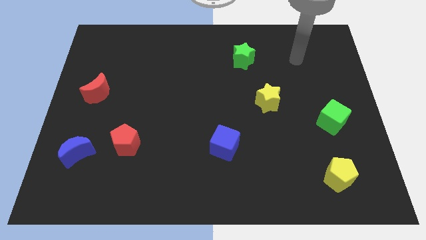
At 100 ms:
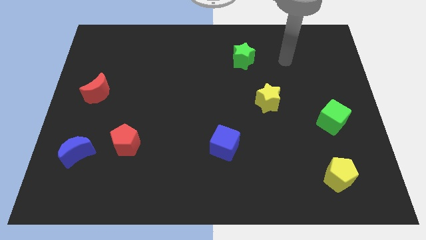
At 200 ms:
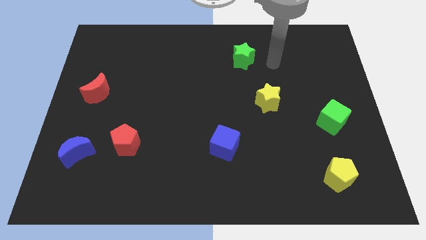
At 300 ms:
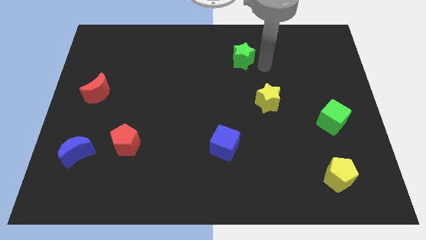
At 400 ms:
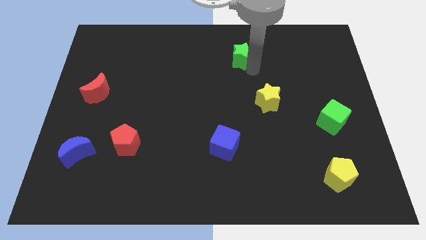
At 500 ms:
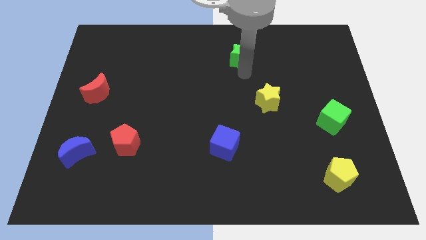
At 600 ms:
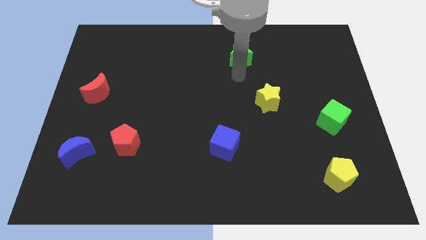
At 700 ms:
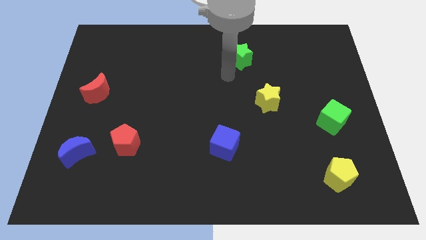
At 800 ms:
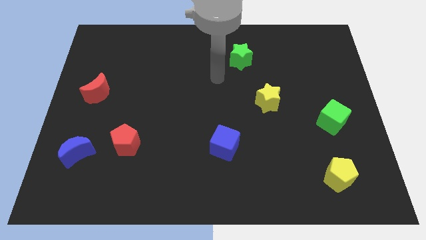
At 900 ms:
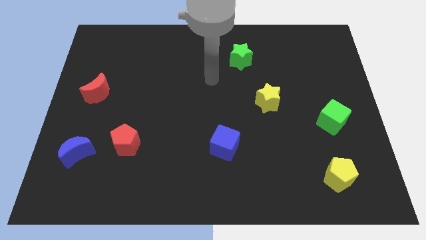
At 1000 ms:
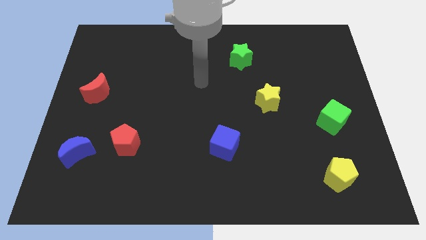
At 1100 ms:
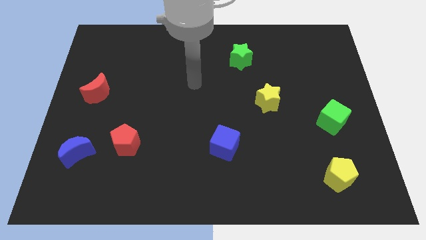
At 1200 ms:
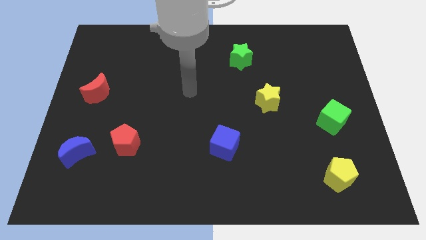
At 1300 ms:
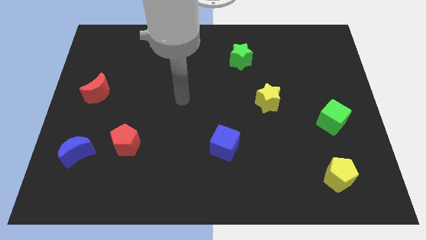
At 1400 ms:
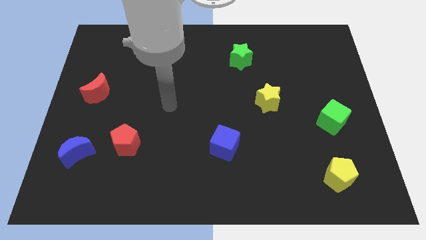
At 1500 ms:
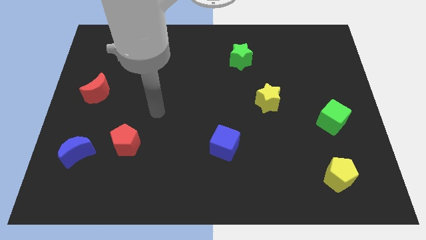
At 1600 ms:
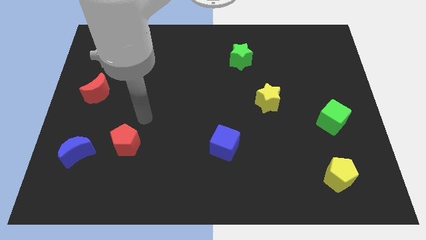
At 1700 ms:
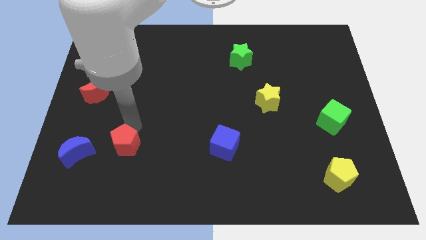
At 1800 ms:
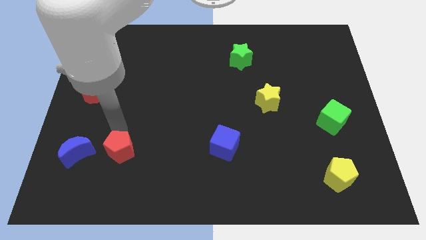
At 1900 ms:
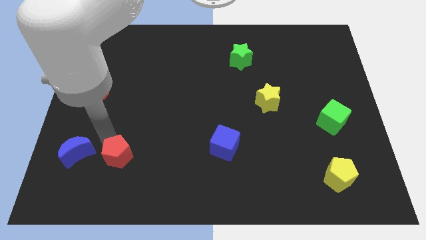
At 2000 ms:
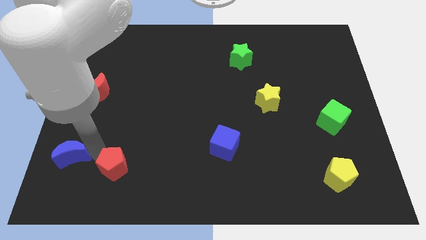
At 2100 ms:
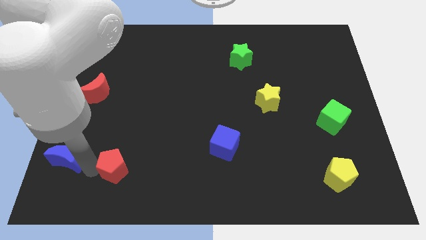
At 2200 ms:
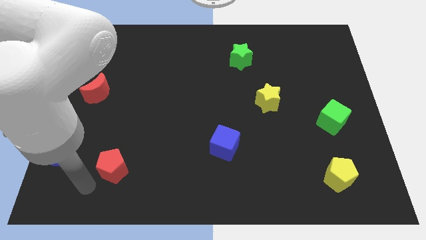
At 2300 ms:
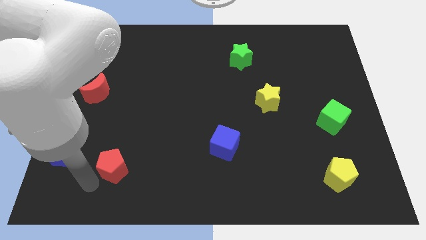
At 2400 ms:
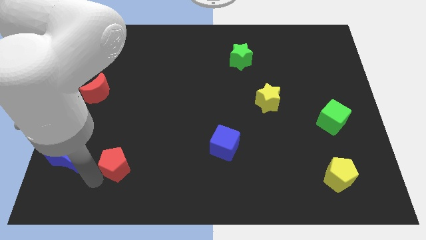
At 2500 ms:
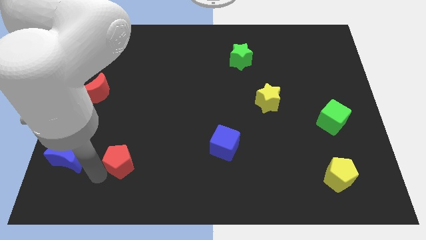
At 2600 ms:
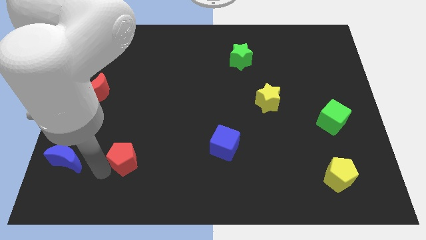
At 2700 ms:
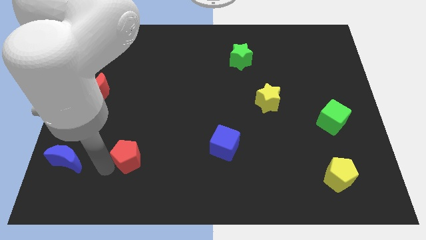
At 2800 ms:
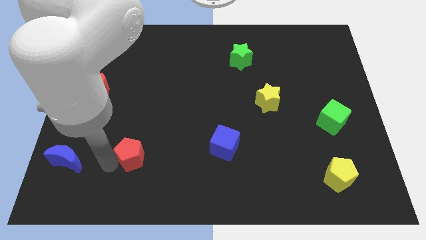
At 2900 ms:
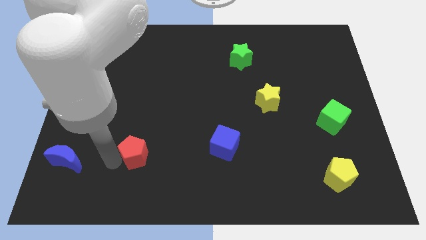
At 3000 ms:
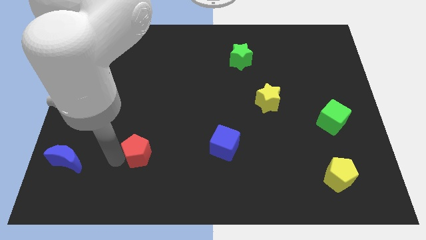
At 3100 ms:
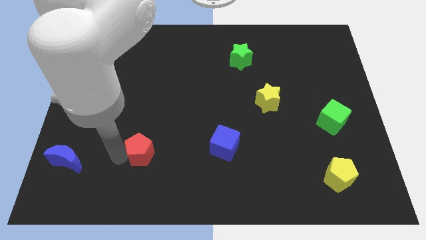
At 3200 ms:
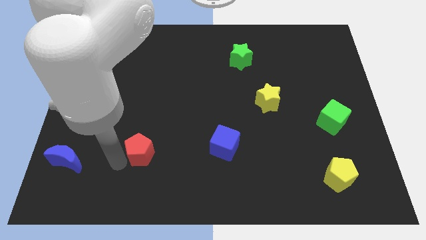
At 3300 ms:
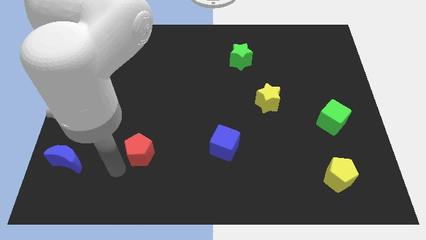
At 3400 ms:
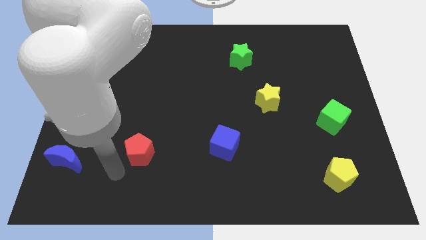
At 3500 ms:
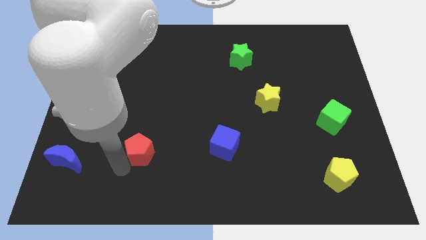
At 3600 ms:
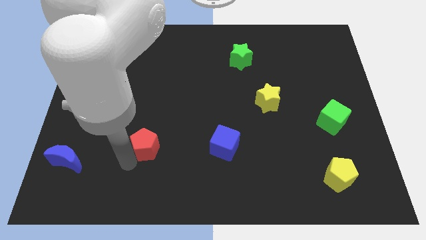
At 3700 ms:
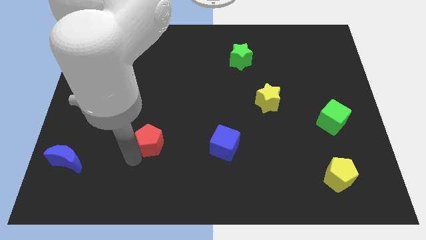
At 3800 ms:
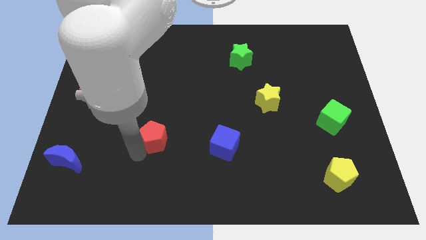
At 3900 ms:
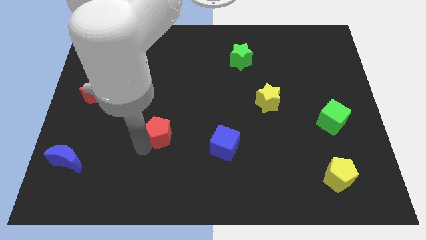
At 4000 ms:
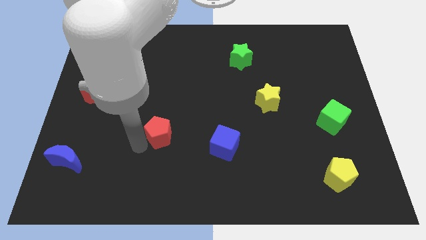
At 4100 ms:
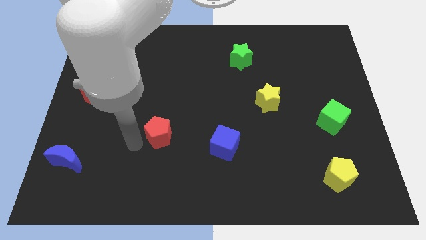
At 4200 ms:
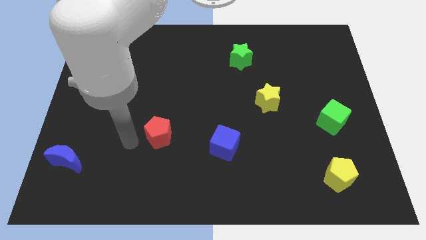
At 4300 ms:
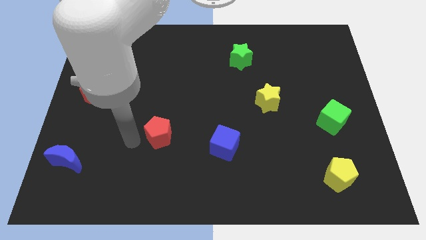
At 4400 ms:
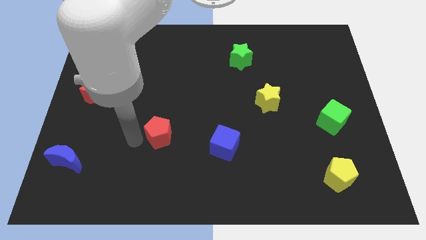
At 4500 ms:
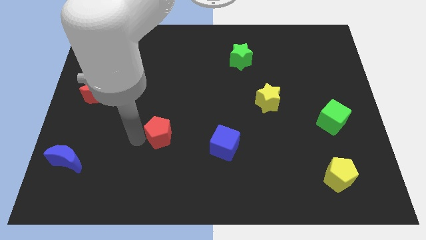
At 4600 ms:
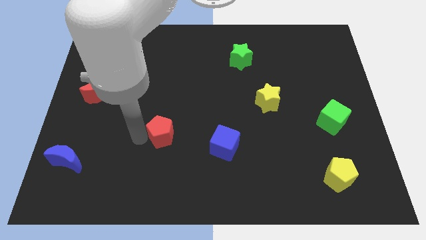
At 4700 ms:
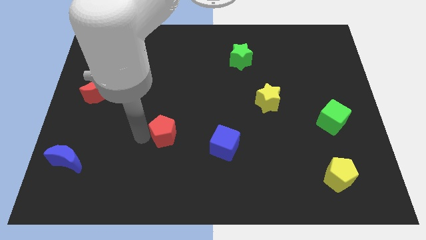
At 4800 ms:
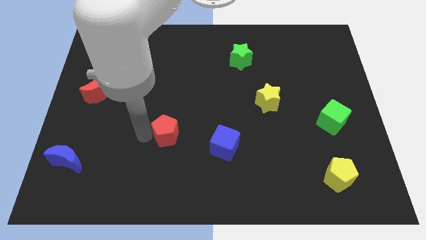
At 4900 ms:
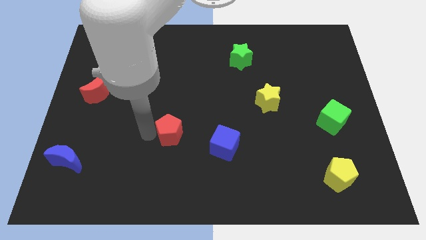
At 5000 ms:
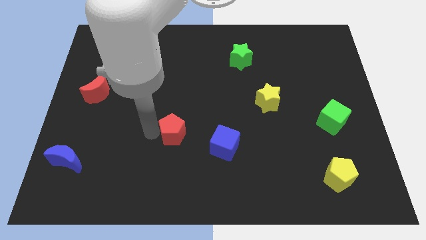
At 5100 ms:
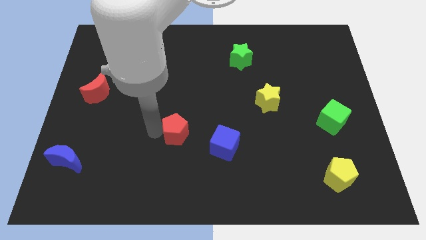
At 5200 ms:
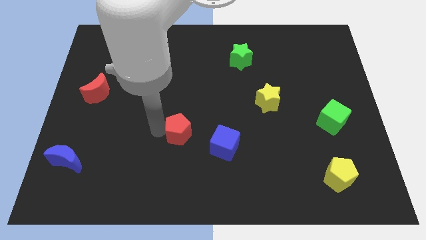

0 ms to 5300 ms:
put the red pentagon to the top left of the blue cube

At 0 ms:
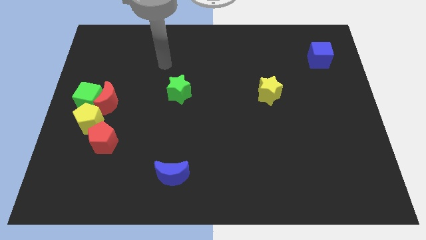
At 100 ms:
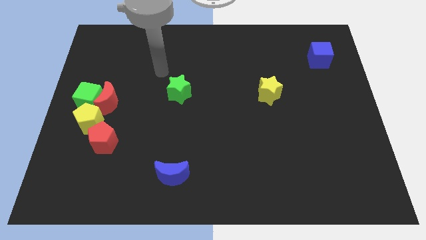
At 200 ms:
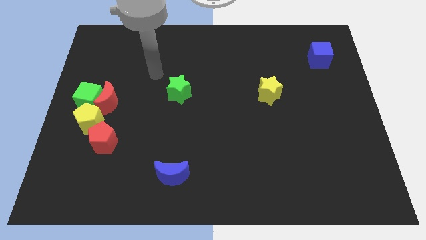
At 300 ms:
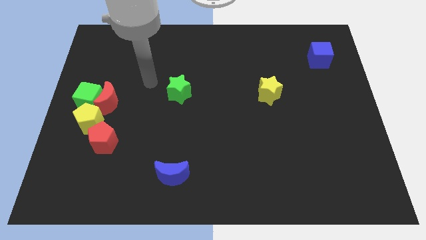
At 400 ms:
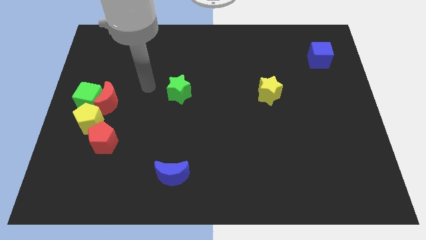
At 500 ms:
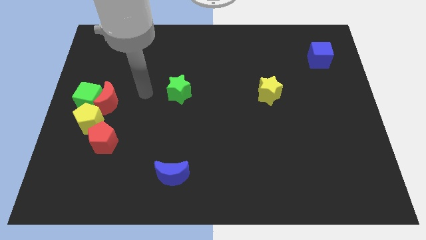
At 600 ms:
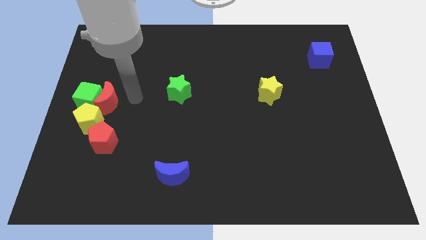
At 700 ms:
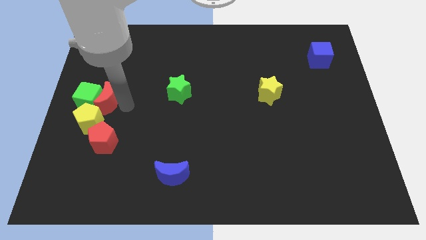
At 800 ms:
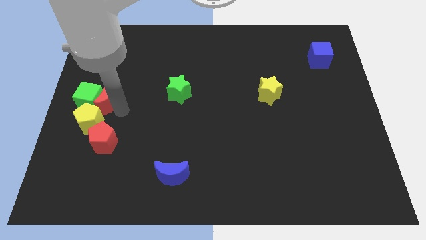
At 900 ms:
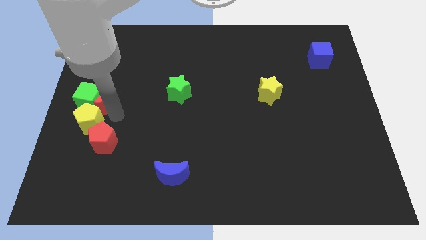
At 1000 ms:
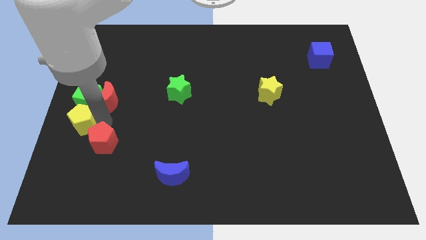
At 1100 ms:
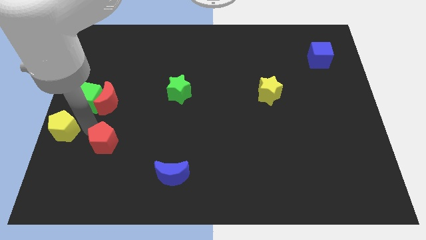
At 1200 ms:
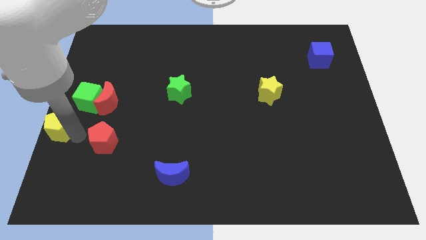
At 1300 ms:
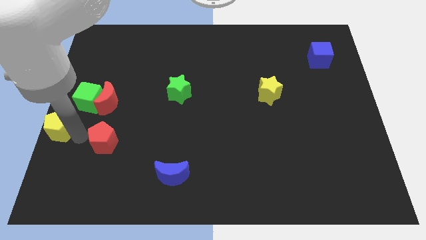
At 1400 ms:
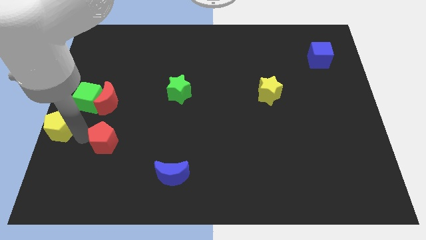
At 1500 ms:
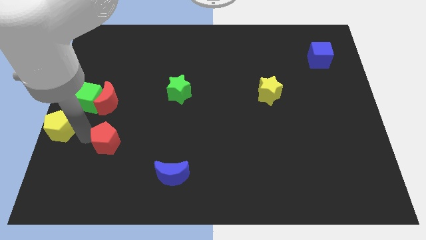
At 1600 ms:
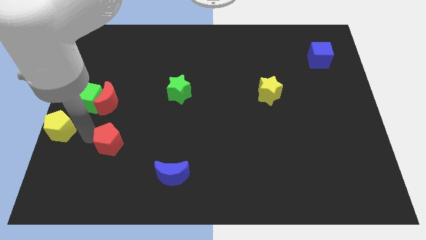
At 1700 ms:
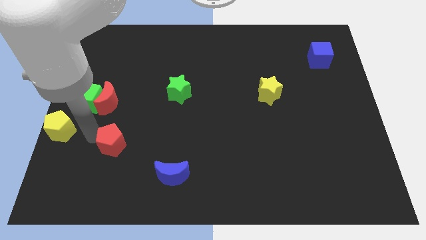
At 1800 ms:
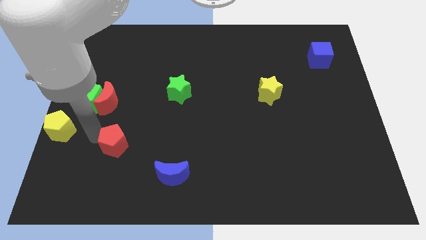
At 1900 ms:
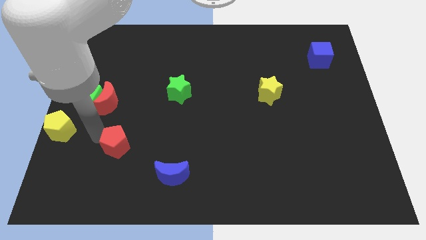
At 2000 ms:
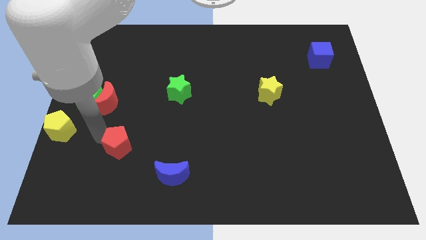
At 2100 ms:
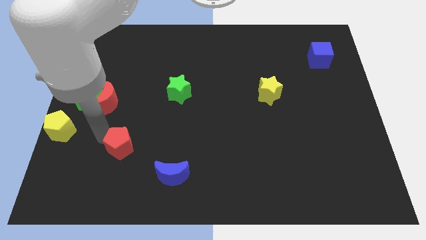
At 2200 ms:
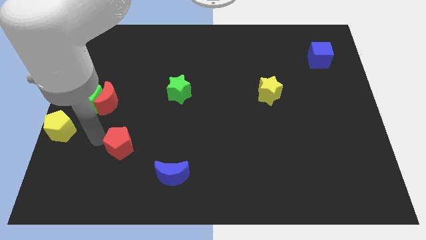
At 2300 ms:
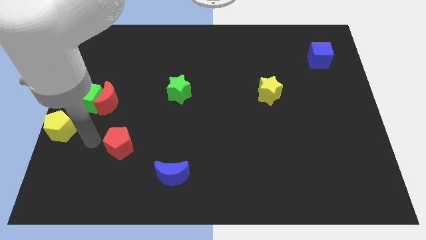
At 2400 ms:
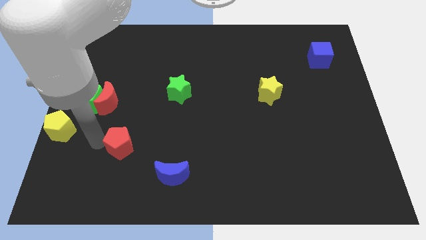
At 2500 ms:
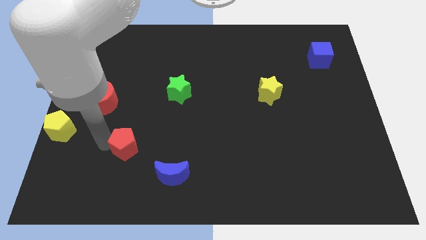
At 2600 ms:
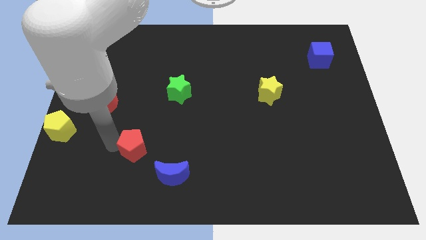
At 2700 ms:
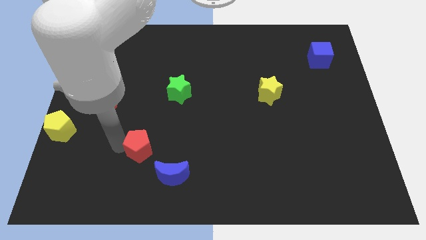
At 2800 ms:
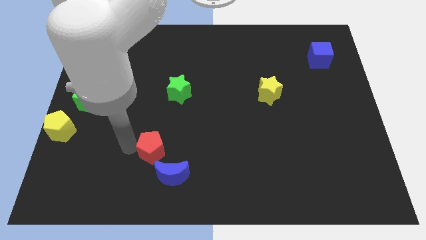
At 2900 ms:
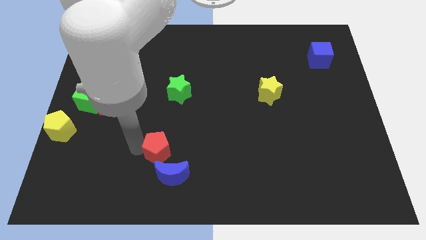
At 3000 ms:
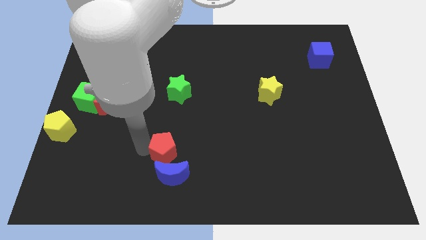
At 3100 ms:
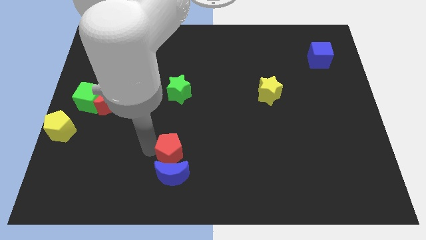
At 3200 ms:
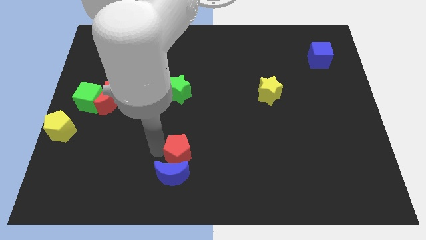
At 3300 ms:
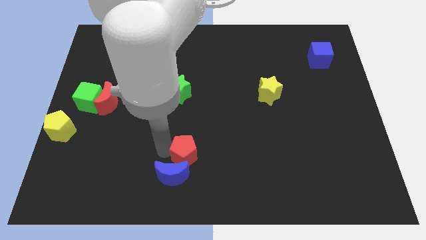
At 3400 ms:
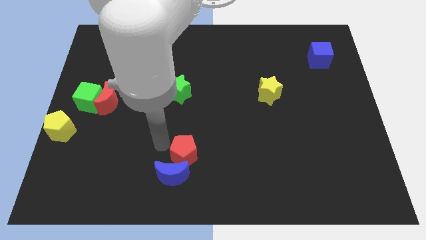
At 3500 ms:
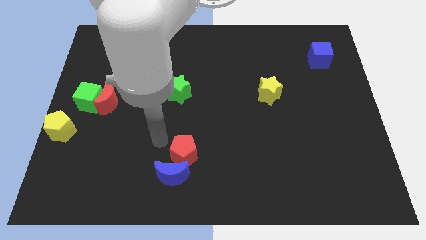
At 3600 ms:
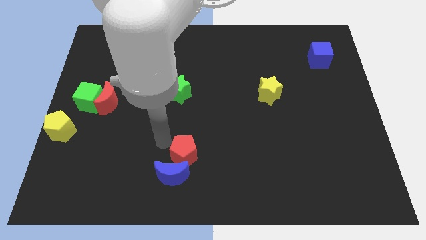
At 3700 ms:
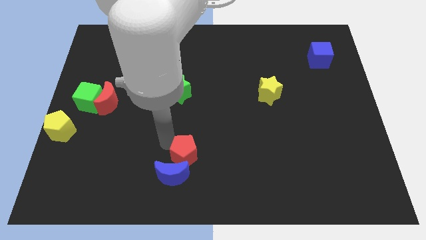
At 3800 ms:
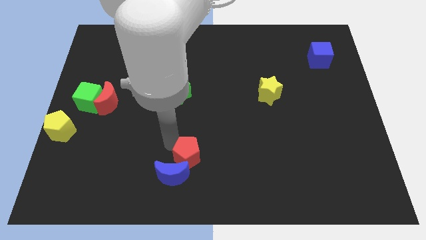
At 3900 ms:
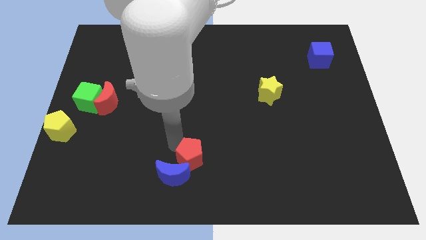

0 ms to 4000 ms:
slide the red pentagon to the right of the blue moon
